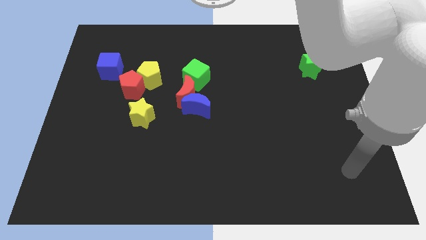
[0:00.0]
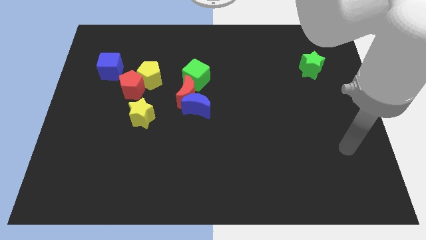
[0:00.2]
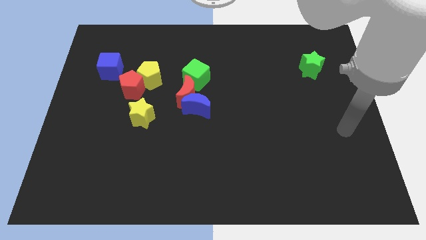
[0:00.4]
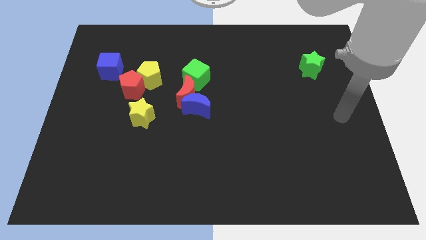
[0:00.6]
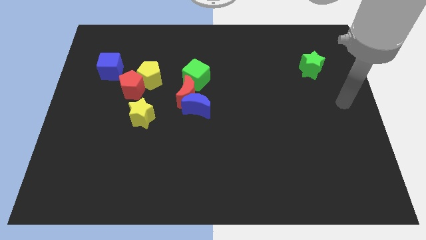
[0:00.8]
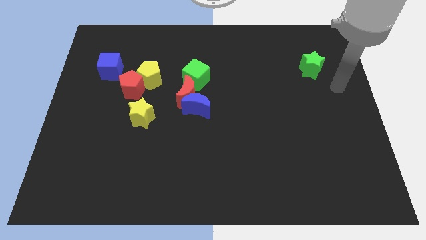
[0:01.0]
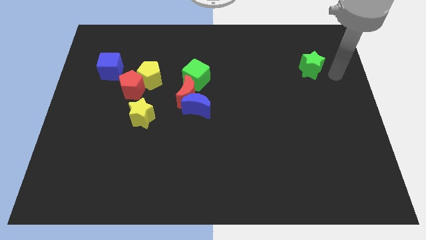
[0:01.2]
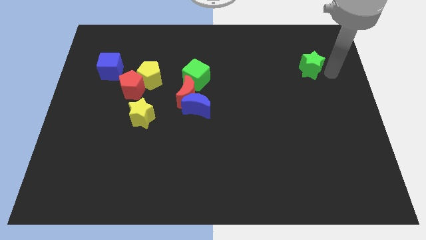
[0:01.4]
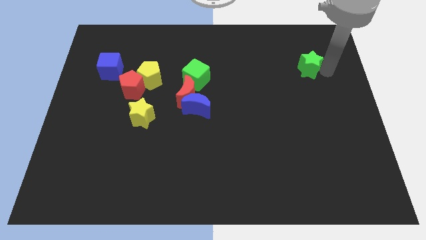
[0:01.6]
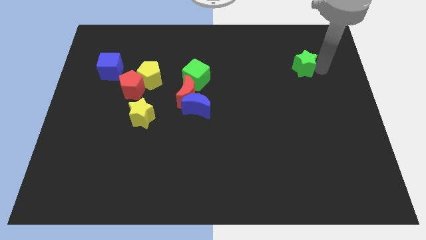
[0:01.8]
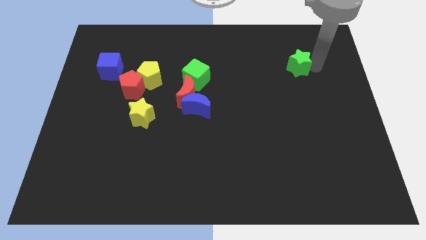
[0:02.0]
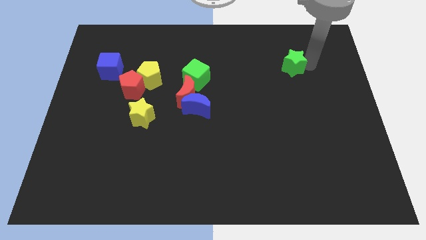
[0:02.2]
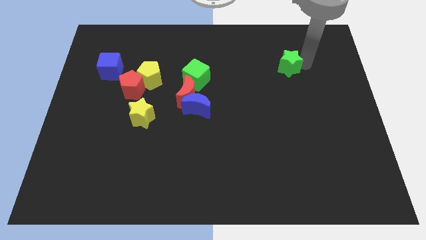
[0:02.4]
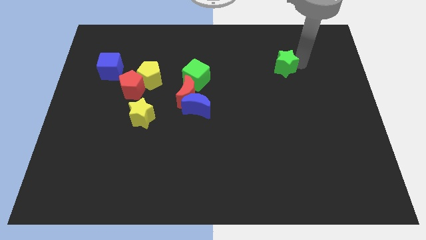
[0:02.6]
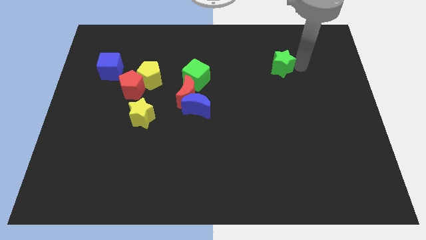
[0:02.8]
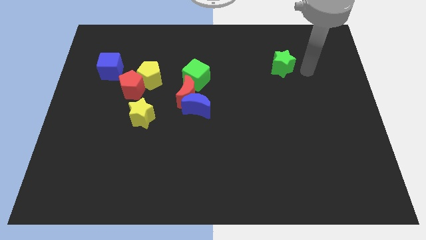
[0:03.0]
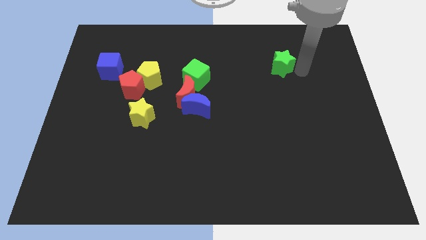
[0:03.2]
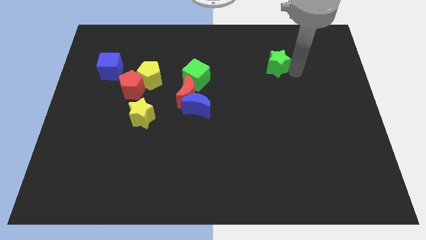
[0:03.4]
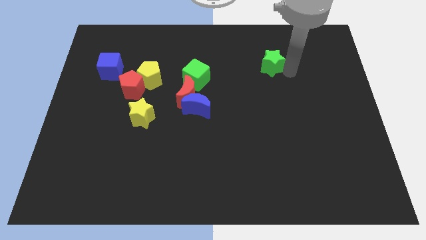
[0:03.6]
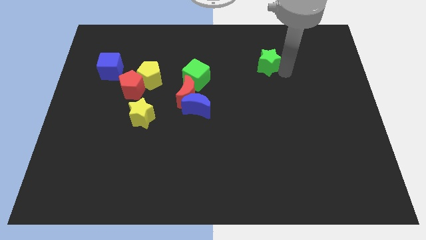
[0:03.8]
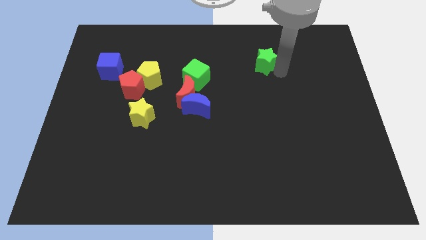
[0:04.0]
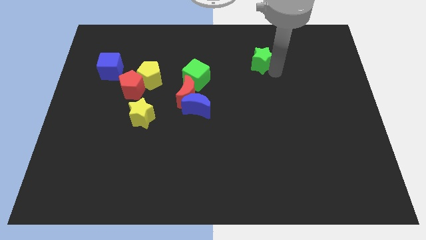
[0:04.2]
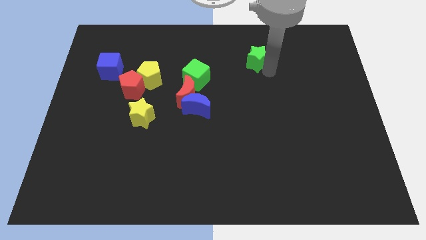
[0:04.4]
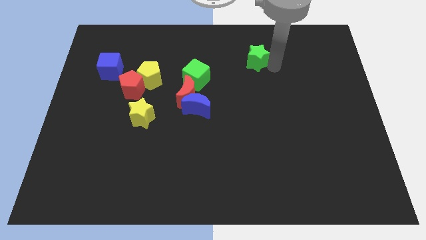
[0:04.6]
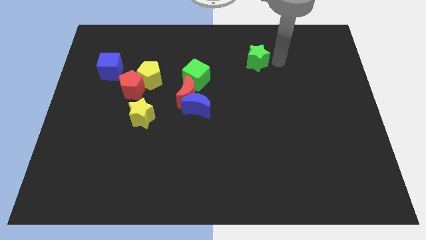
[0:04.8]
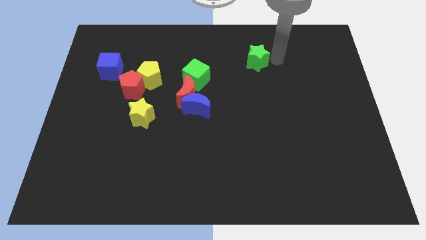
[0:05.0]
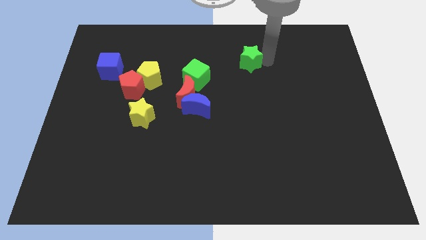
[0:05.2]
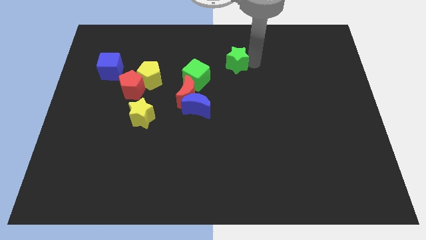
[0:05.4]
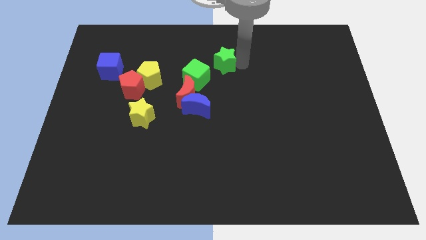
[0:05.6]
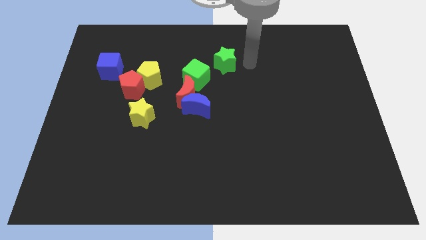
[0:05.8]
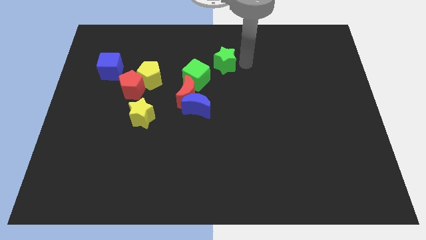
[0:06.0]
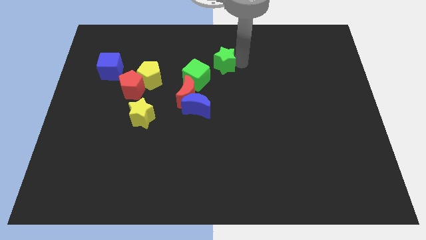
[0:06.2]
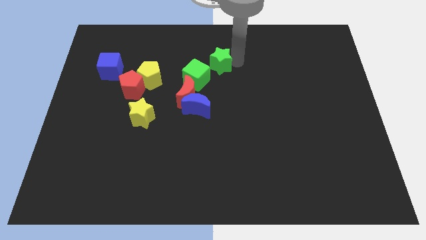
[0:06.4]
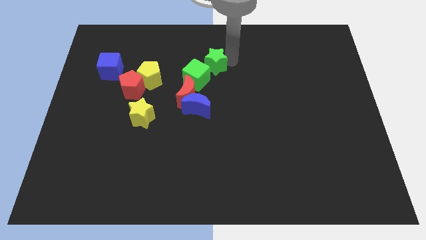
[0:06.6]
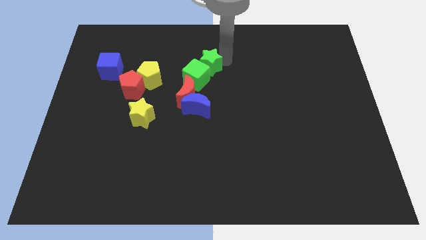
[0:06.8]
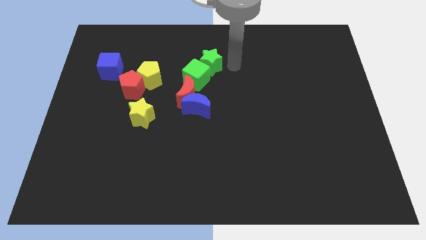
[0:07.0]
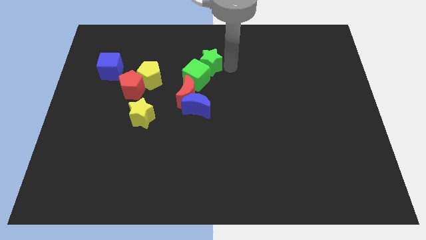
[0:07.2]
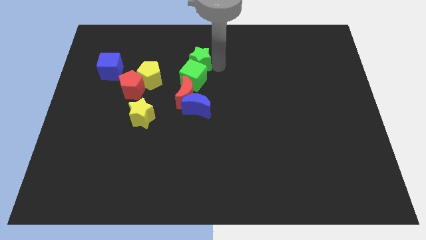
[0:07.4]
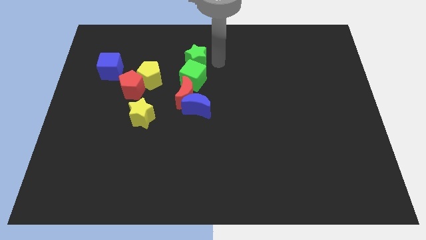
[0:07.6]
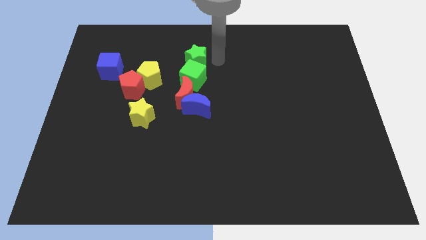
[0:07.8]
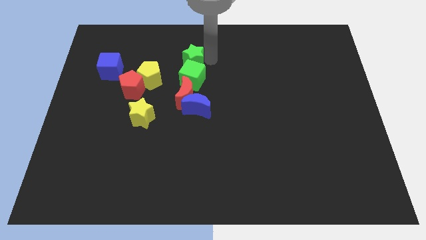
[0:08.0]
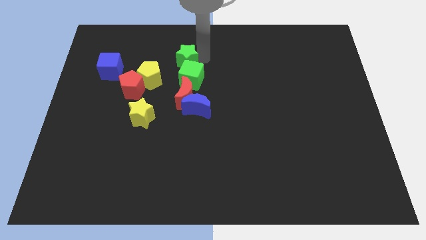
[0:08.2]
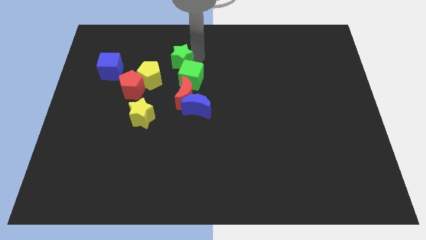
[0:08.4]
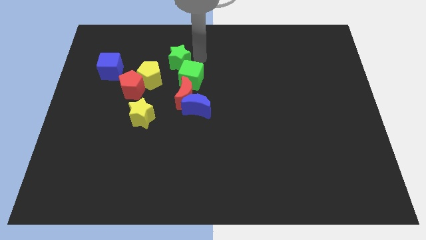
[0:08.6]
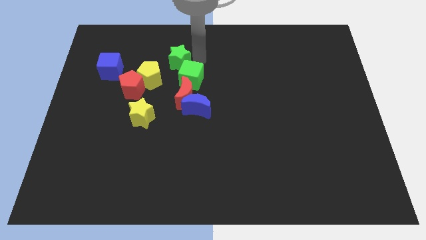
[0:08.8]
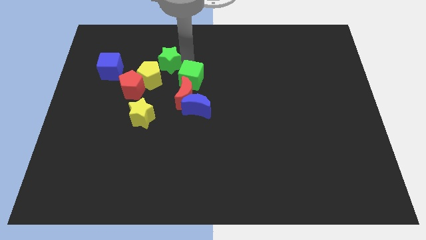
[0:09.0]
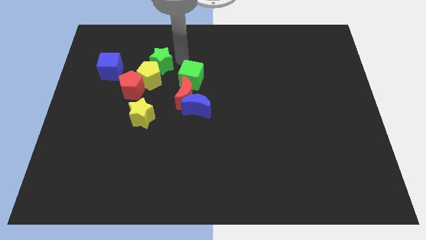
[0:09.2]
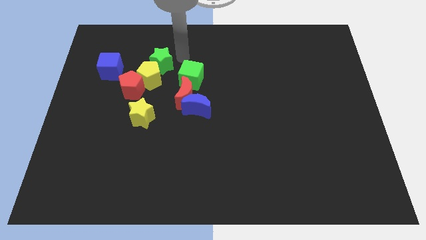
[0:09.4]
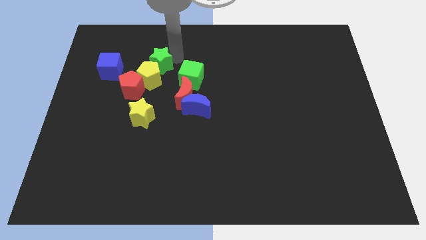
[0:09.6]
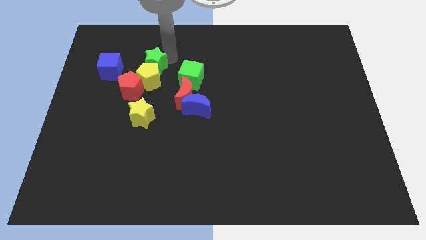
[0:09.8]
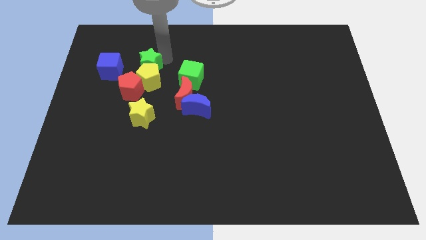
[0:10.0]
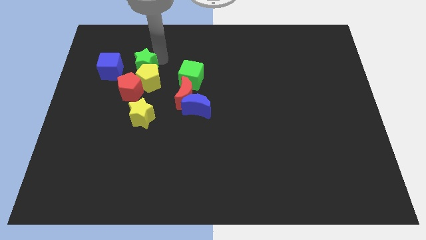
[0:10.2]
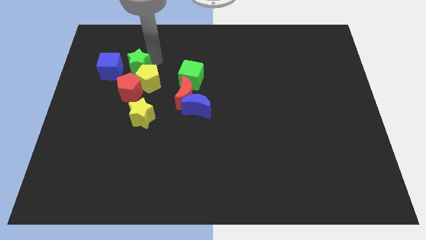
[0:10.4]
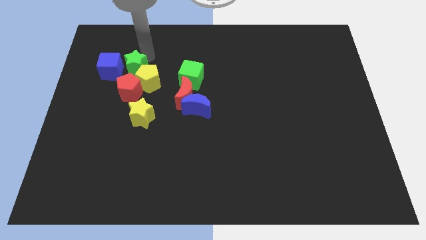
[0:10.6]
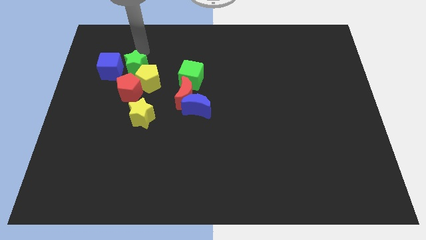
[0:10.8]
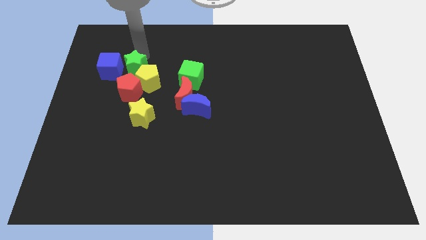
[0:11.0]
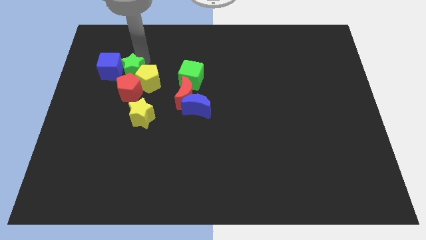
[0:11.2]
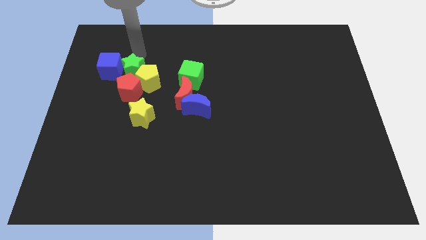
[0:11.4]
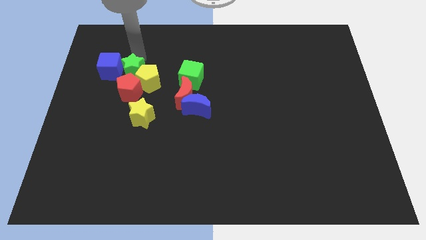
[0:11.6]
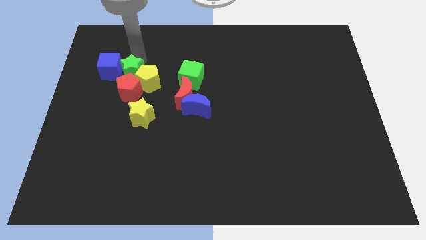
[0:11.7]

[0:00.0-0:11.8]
put the green star to the red pentagon

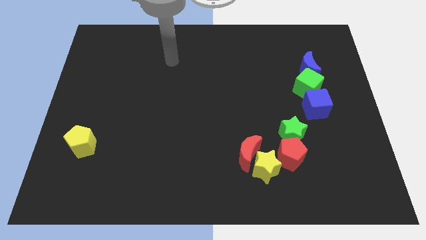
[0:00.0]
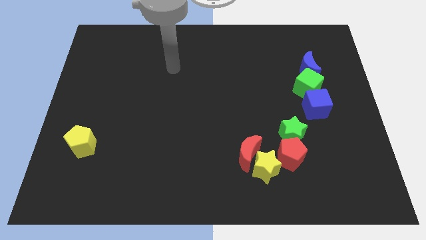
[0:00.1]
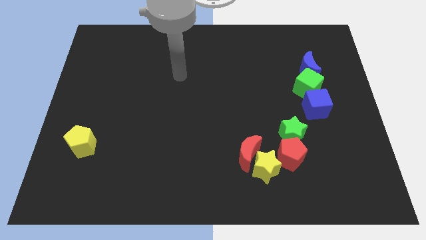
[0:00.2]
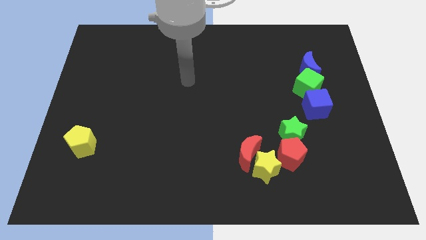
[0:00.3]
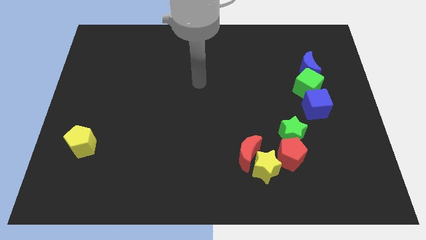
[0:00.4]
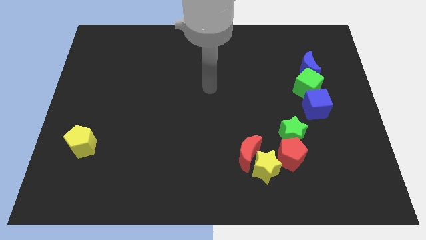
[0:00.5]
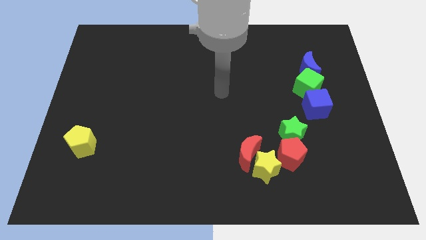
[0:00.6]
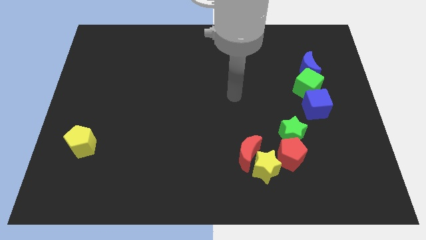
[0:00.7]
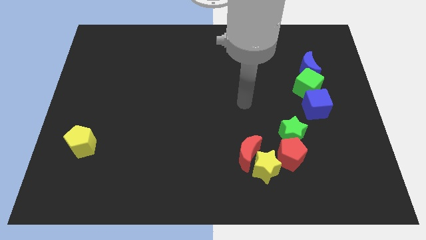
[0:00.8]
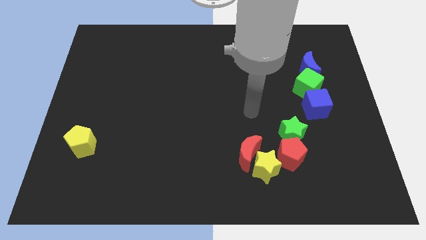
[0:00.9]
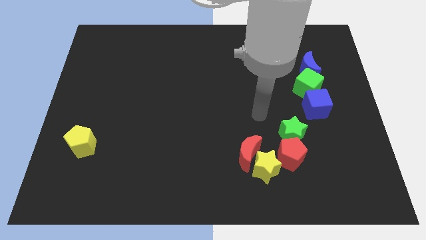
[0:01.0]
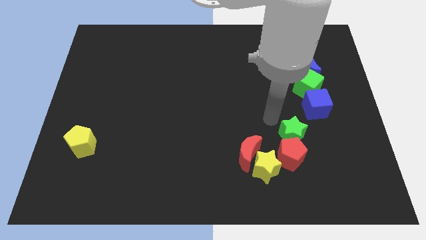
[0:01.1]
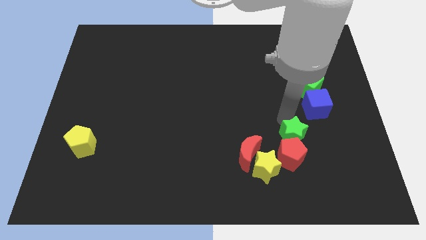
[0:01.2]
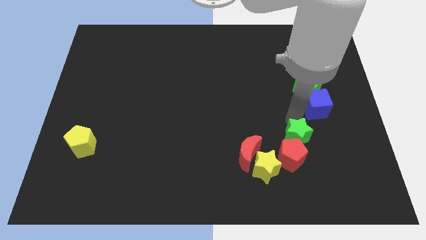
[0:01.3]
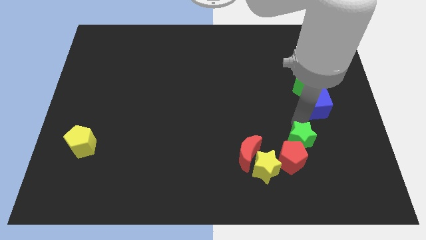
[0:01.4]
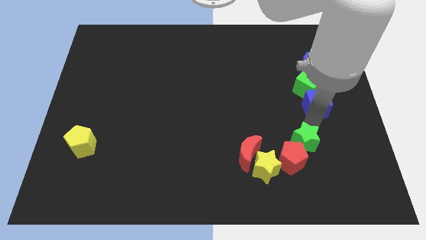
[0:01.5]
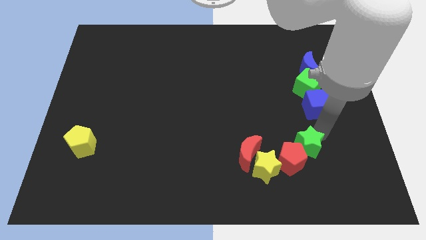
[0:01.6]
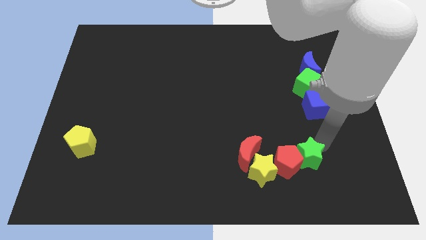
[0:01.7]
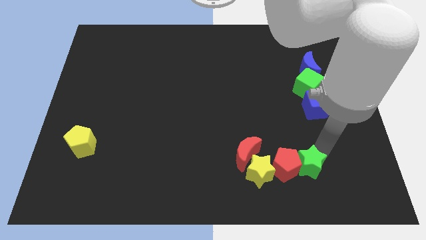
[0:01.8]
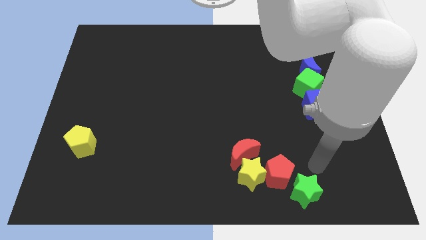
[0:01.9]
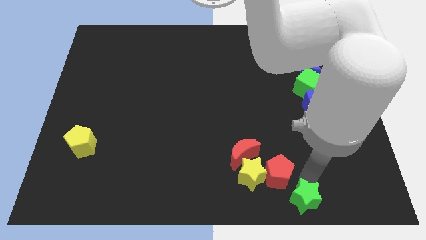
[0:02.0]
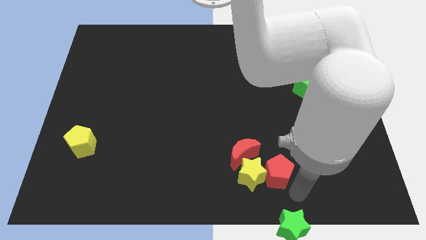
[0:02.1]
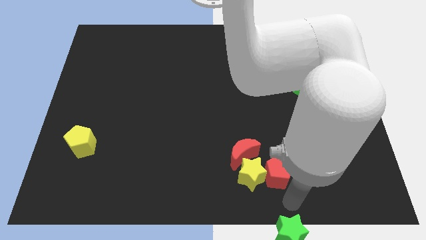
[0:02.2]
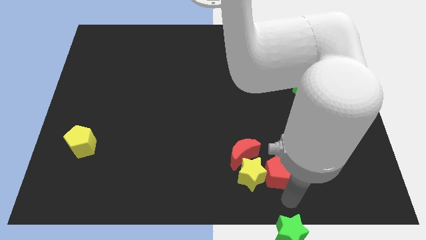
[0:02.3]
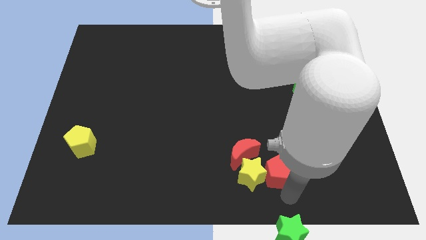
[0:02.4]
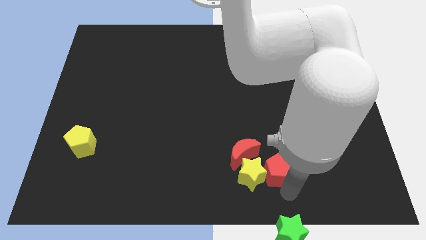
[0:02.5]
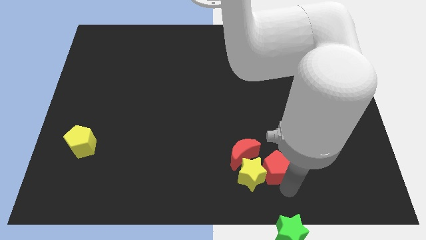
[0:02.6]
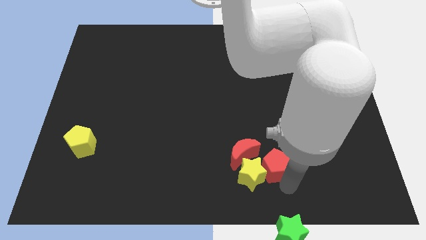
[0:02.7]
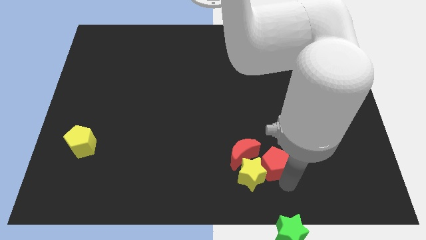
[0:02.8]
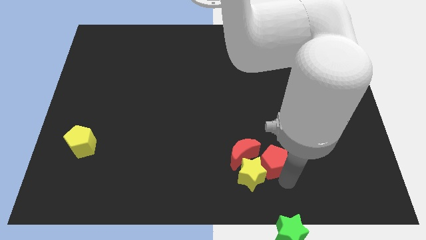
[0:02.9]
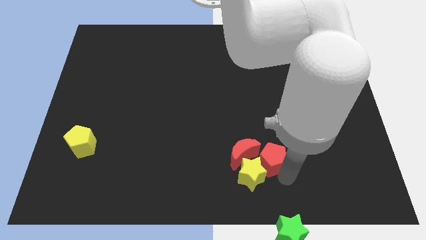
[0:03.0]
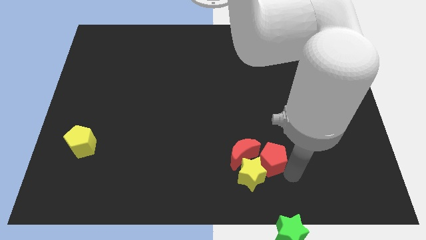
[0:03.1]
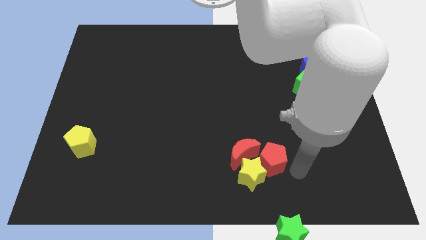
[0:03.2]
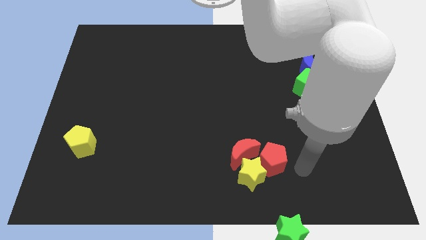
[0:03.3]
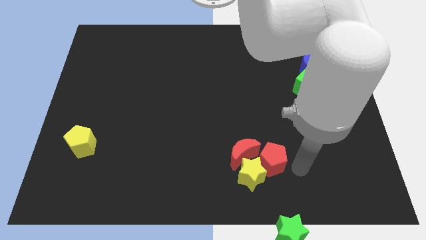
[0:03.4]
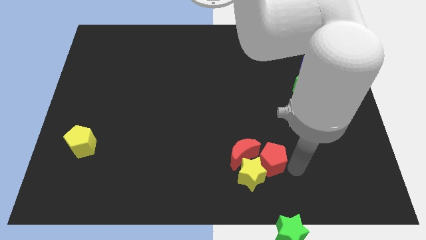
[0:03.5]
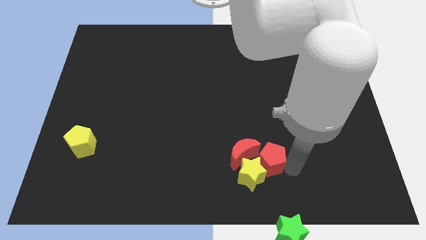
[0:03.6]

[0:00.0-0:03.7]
move the red pentagon to the red moon
